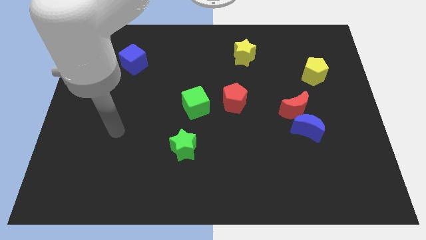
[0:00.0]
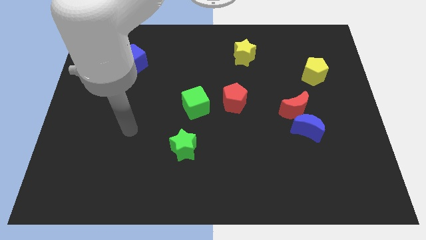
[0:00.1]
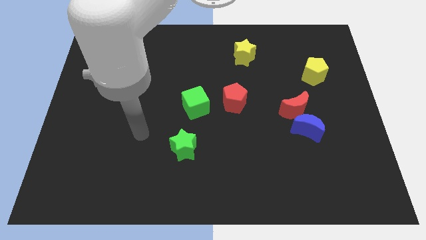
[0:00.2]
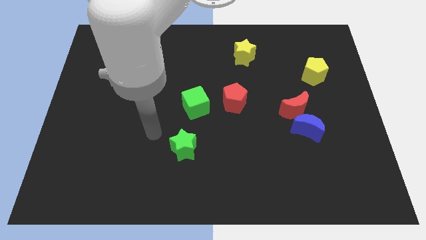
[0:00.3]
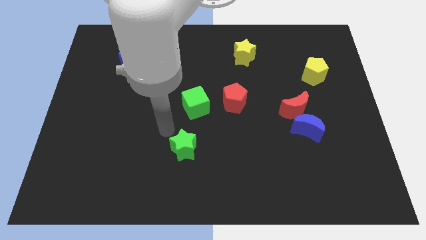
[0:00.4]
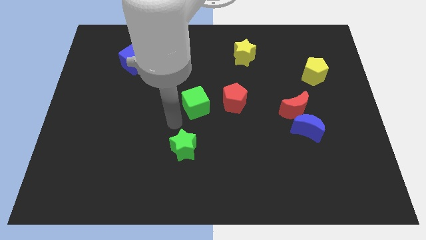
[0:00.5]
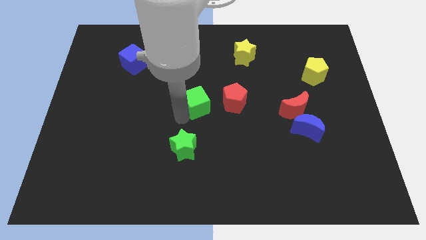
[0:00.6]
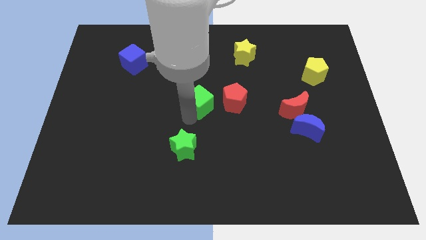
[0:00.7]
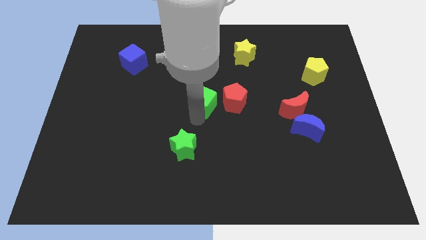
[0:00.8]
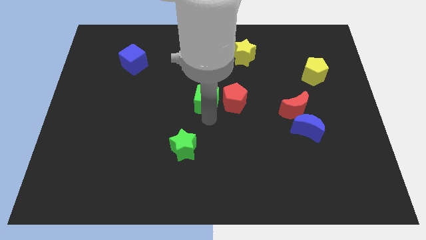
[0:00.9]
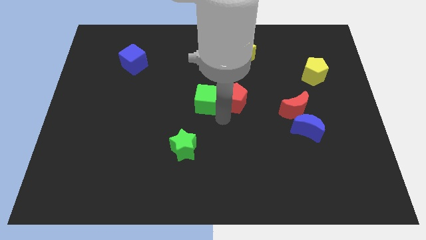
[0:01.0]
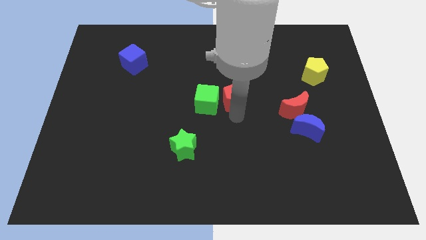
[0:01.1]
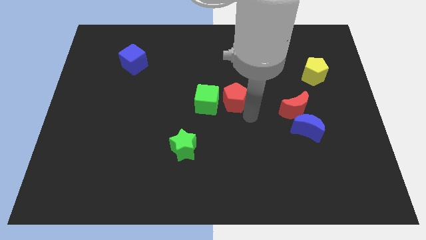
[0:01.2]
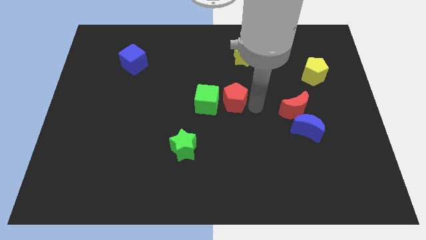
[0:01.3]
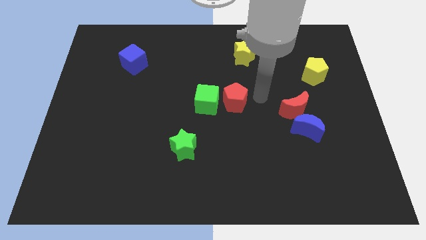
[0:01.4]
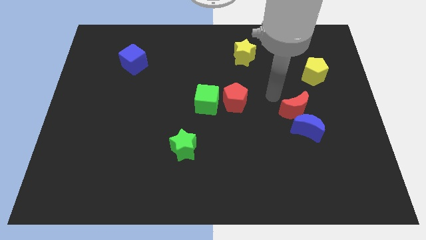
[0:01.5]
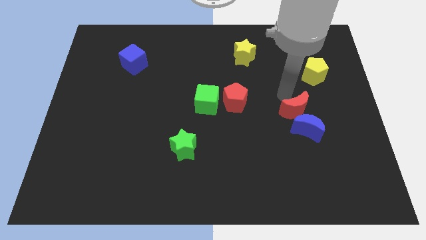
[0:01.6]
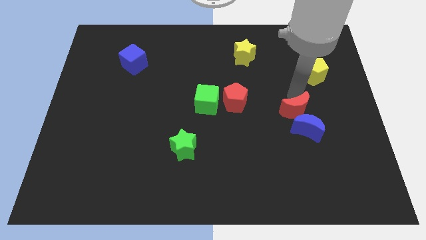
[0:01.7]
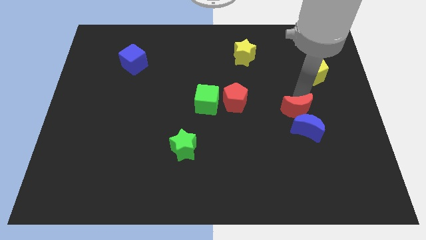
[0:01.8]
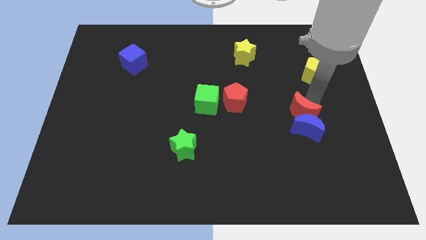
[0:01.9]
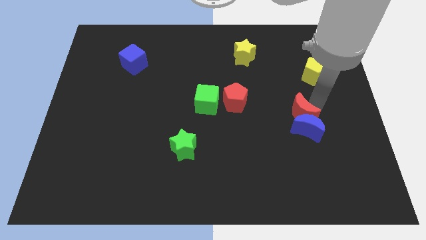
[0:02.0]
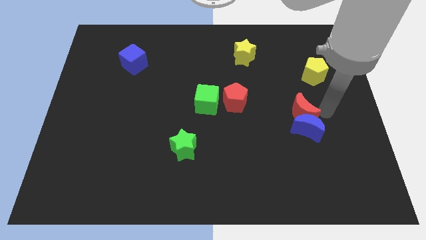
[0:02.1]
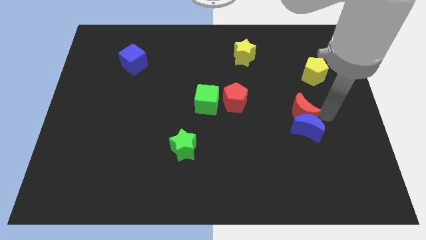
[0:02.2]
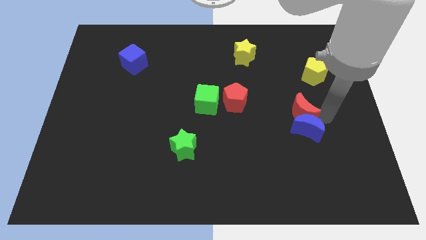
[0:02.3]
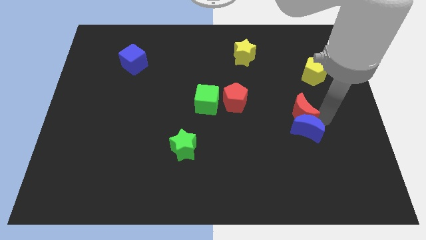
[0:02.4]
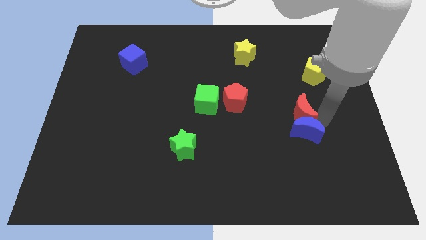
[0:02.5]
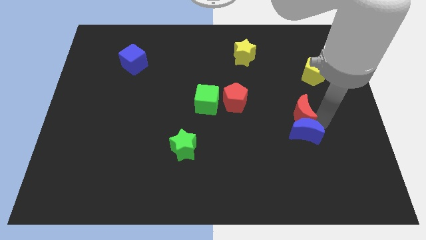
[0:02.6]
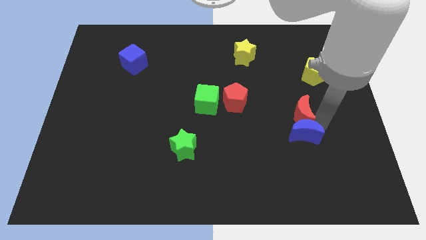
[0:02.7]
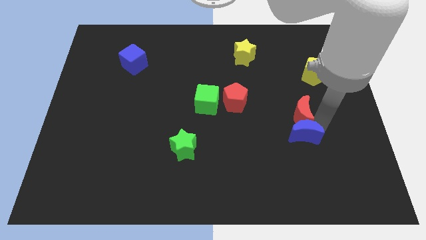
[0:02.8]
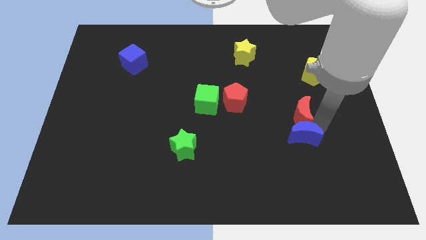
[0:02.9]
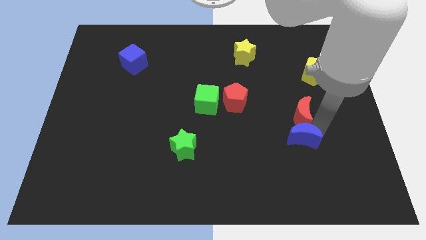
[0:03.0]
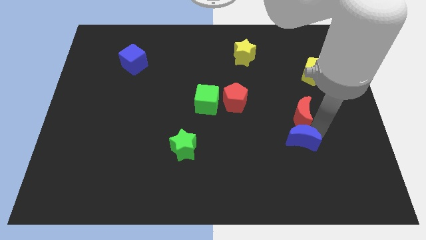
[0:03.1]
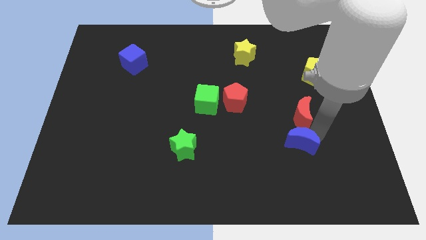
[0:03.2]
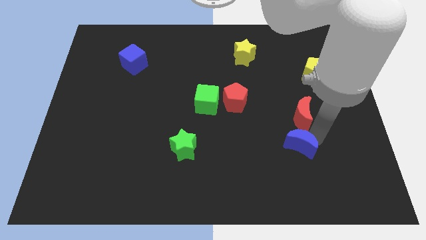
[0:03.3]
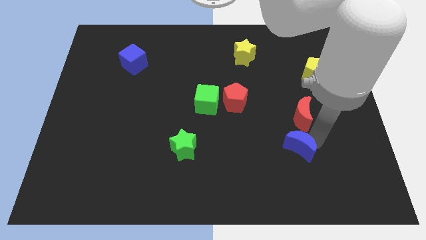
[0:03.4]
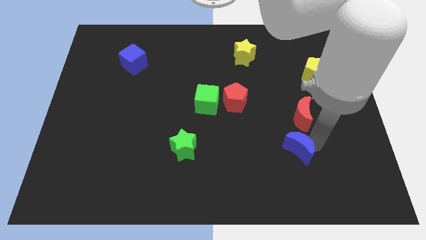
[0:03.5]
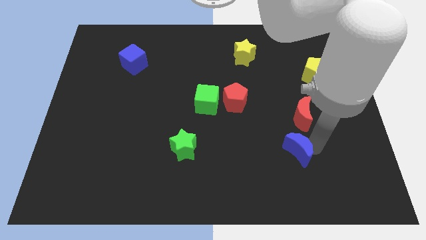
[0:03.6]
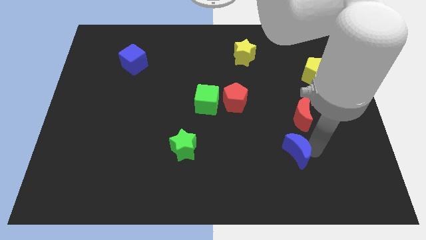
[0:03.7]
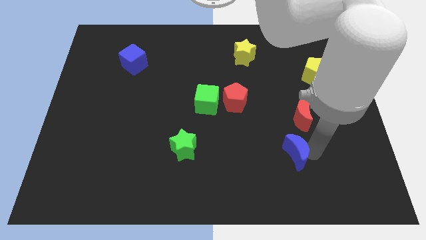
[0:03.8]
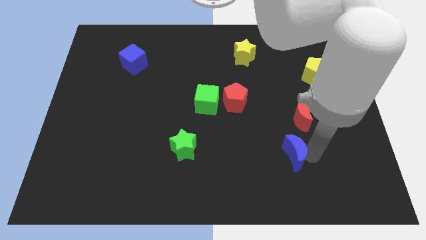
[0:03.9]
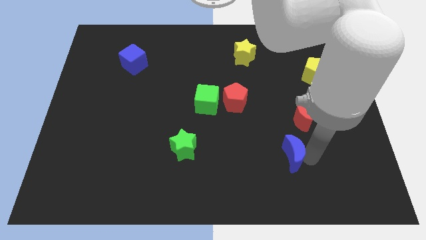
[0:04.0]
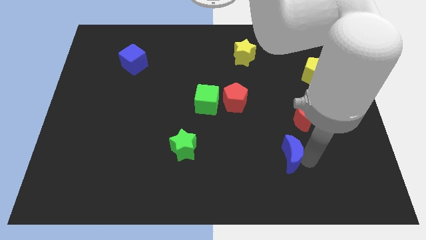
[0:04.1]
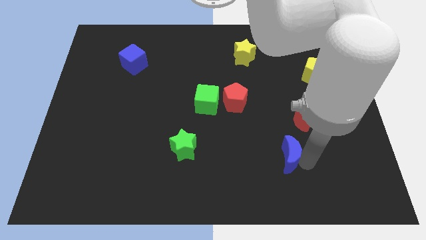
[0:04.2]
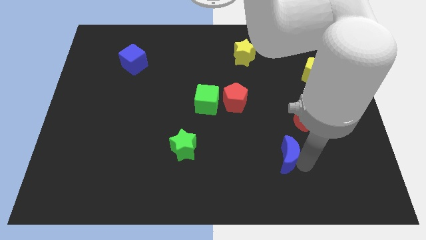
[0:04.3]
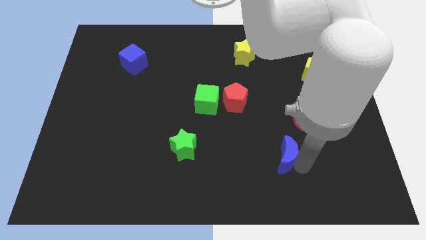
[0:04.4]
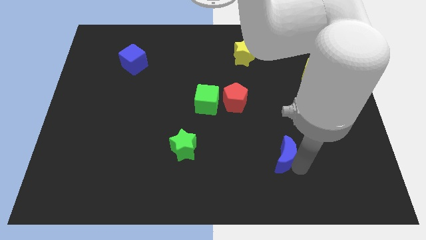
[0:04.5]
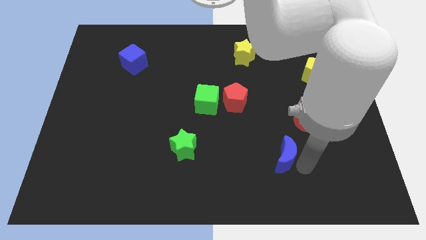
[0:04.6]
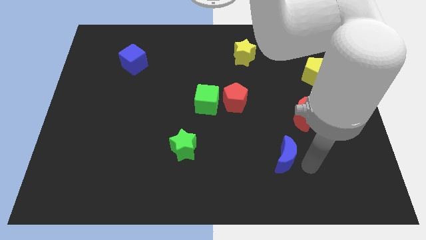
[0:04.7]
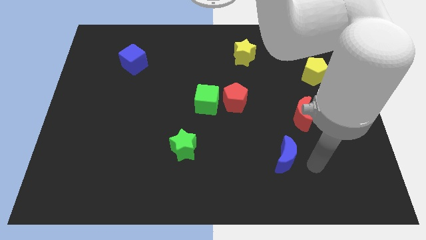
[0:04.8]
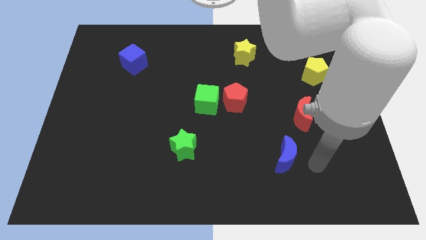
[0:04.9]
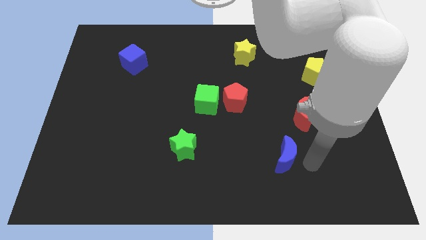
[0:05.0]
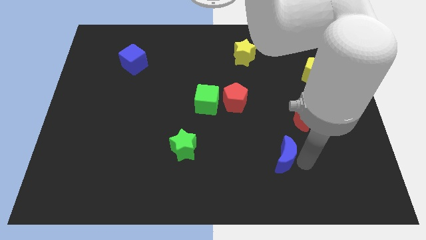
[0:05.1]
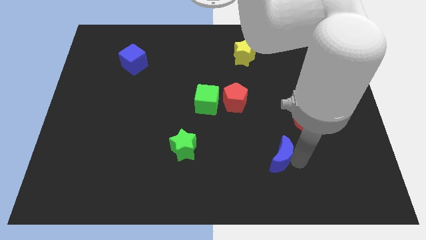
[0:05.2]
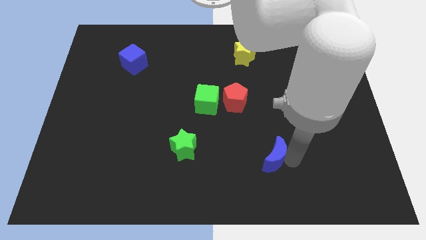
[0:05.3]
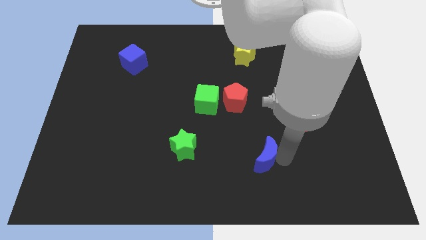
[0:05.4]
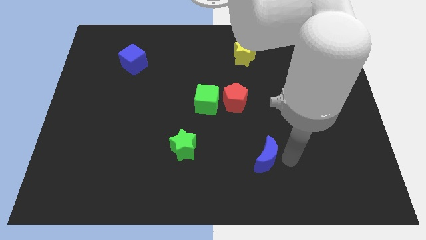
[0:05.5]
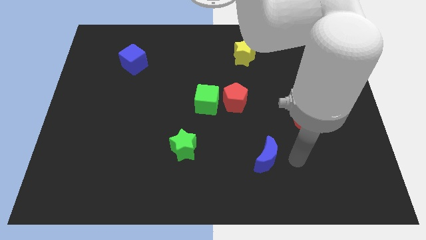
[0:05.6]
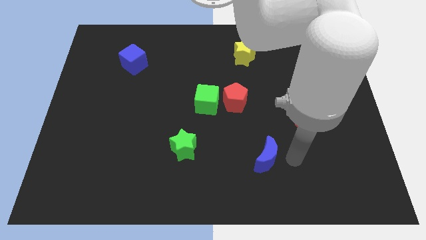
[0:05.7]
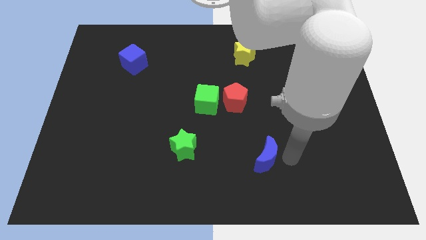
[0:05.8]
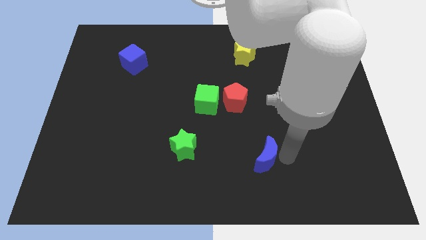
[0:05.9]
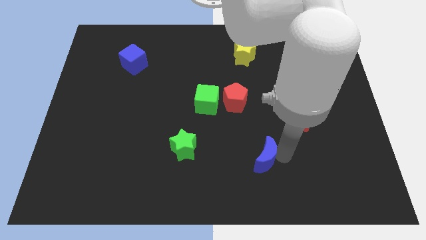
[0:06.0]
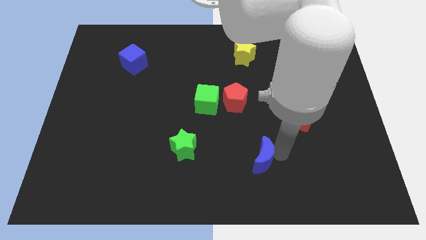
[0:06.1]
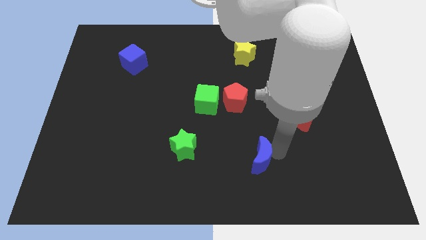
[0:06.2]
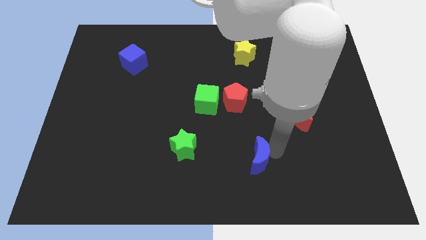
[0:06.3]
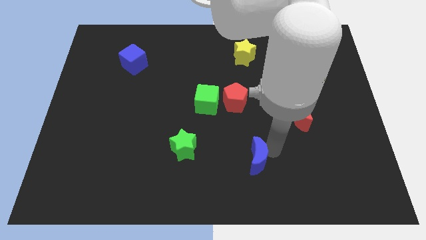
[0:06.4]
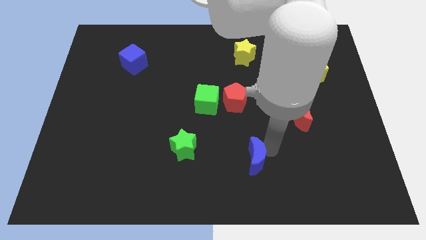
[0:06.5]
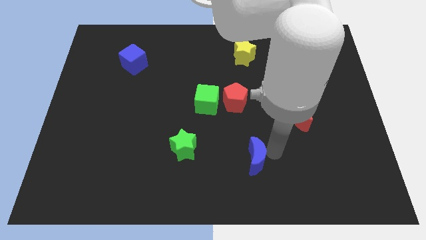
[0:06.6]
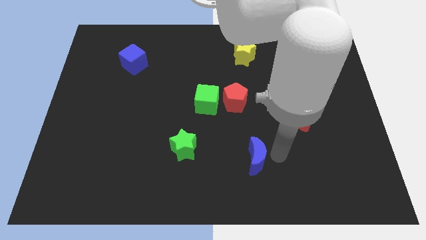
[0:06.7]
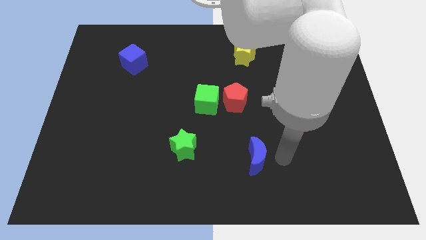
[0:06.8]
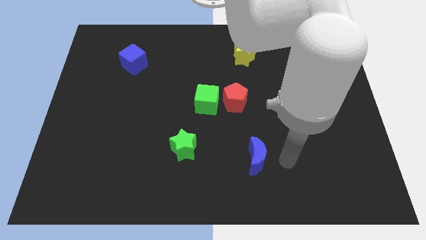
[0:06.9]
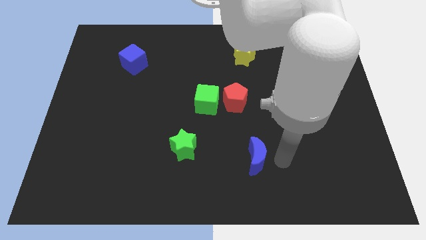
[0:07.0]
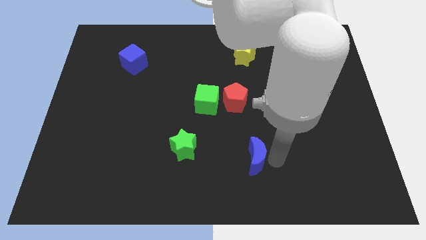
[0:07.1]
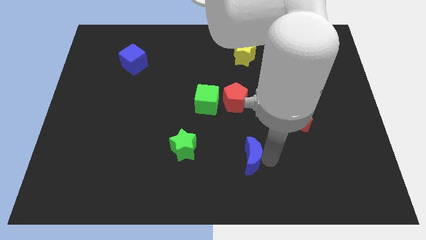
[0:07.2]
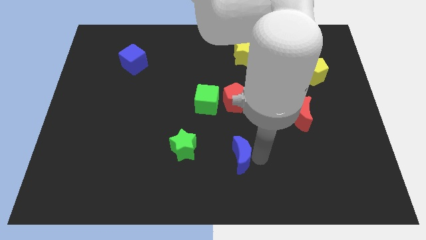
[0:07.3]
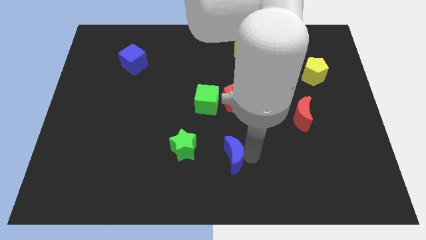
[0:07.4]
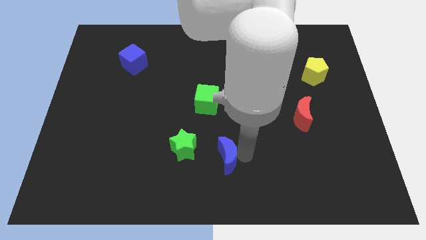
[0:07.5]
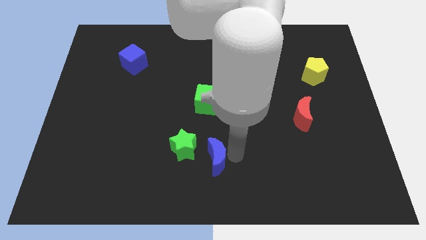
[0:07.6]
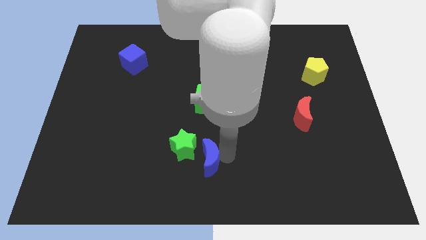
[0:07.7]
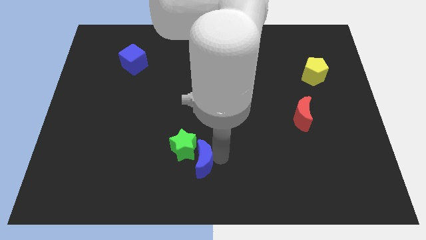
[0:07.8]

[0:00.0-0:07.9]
push the blue moon to the left
